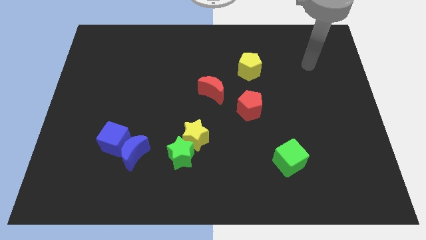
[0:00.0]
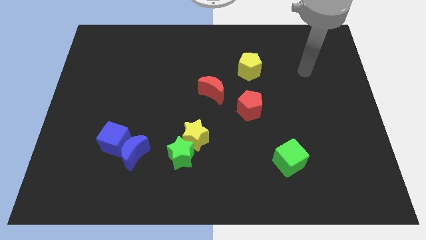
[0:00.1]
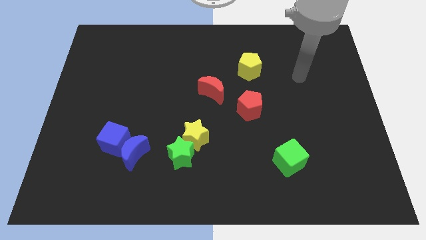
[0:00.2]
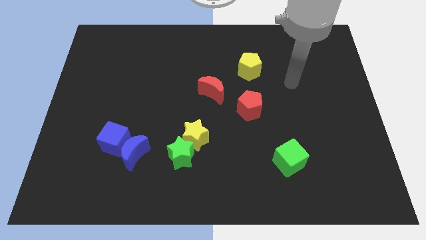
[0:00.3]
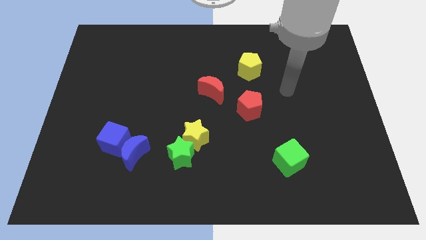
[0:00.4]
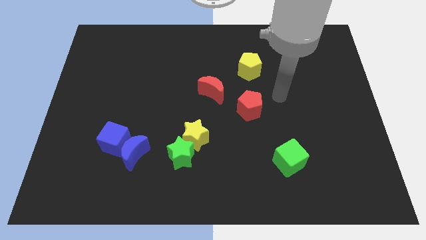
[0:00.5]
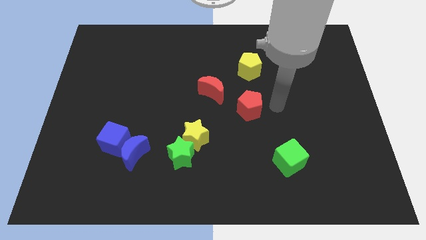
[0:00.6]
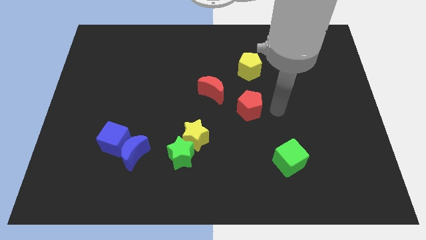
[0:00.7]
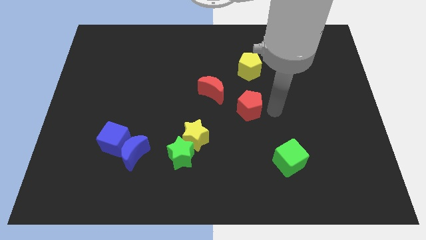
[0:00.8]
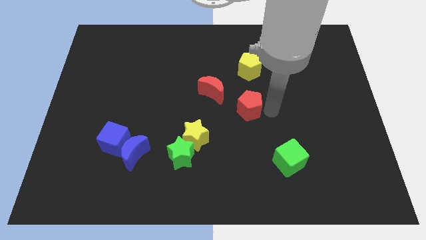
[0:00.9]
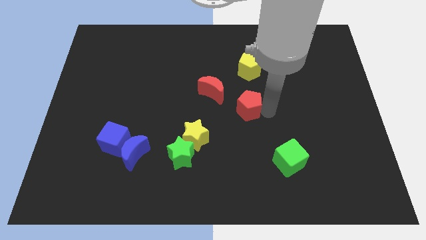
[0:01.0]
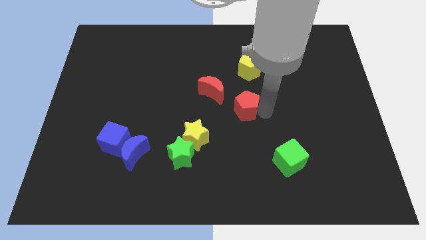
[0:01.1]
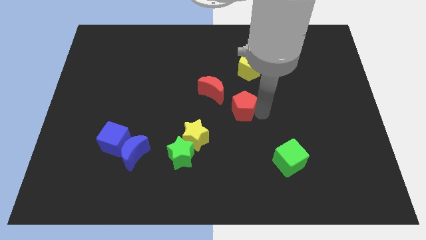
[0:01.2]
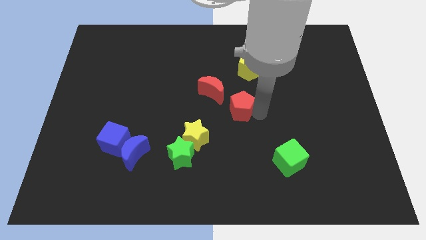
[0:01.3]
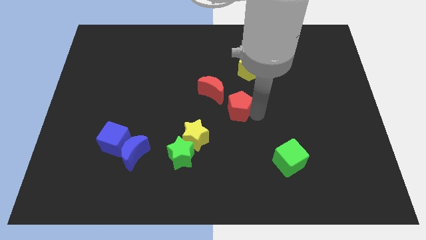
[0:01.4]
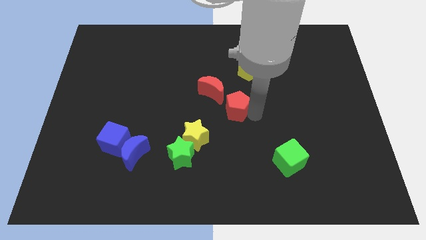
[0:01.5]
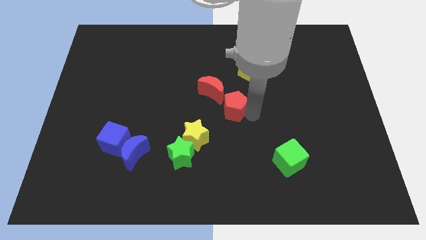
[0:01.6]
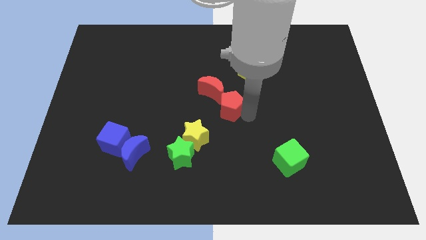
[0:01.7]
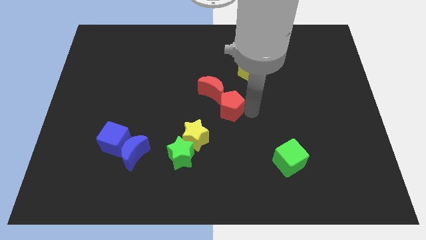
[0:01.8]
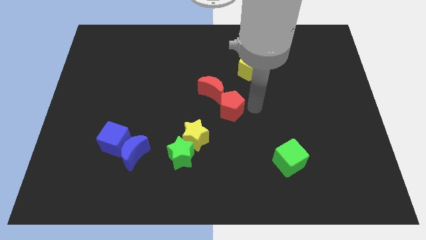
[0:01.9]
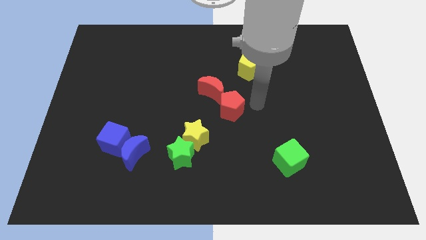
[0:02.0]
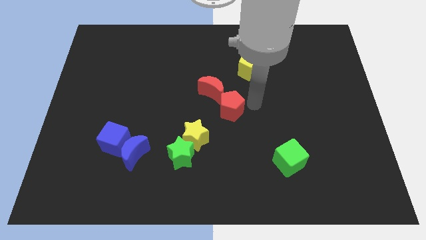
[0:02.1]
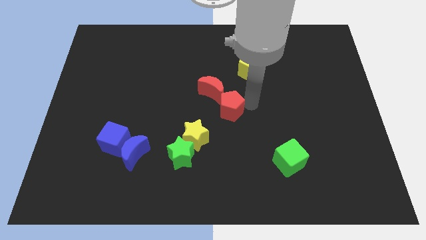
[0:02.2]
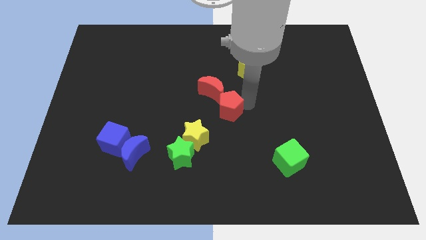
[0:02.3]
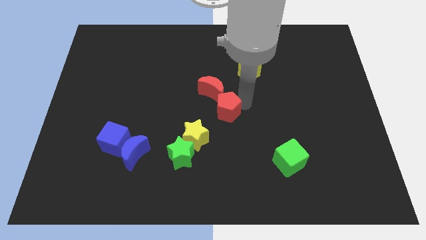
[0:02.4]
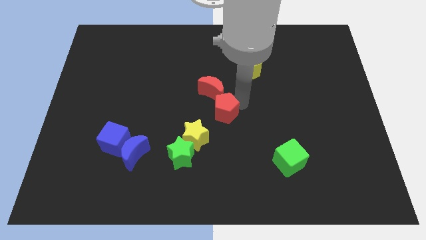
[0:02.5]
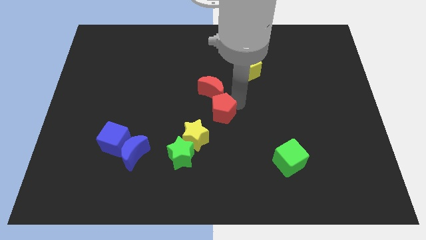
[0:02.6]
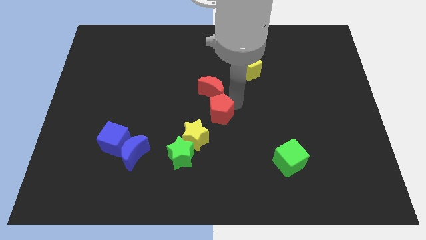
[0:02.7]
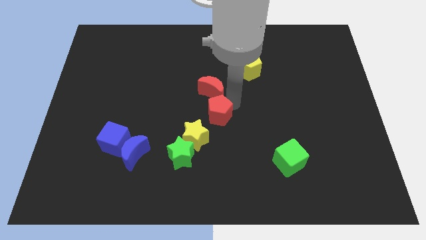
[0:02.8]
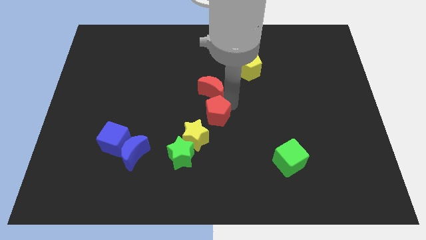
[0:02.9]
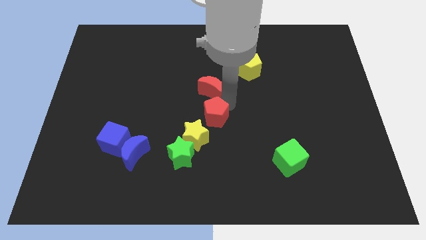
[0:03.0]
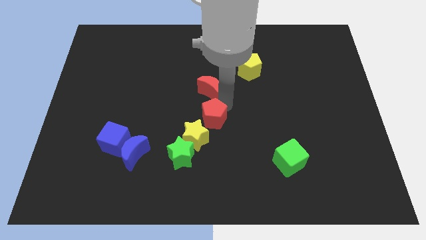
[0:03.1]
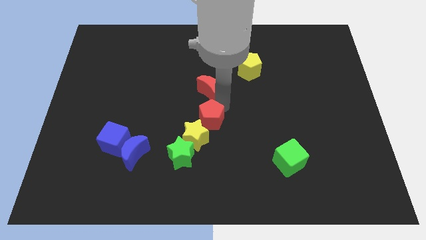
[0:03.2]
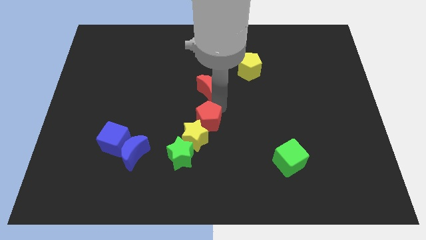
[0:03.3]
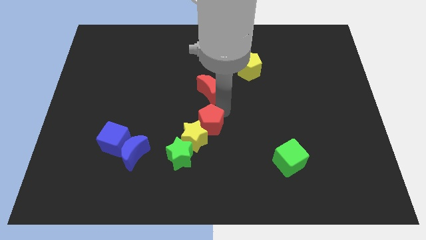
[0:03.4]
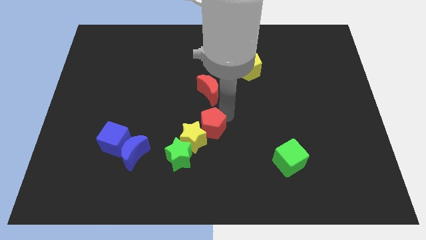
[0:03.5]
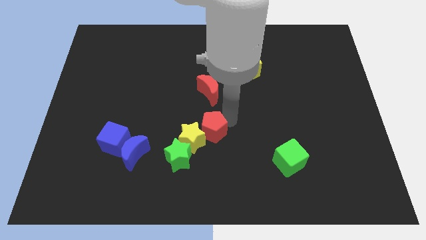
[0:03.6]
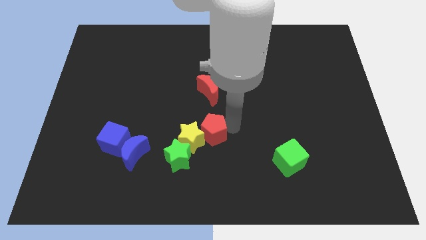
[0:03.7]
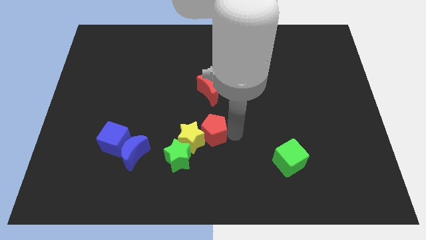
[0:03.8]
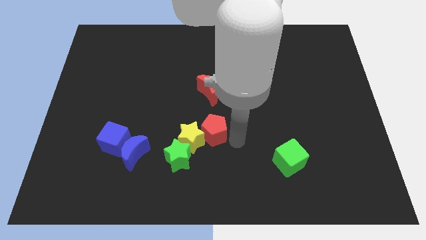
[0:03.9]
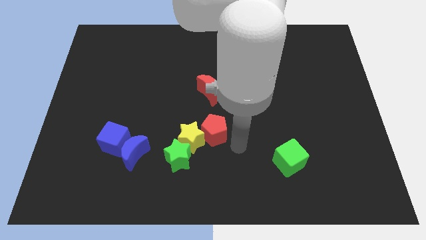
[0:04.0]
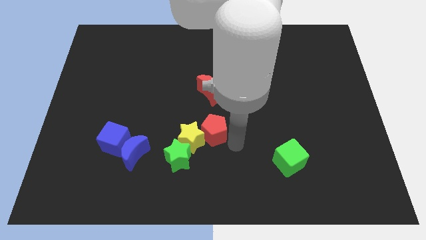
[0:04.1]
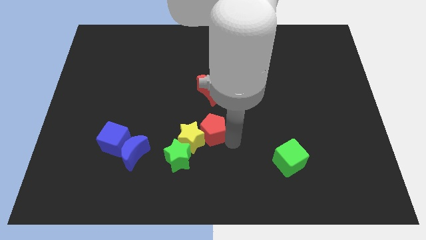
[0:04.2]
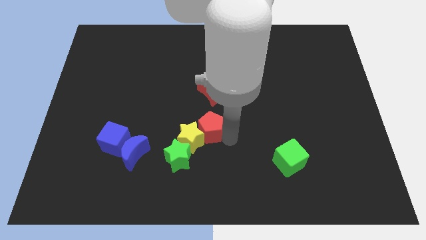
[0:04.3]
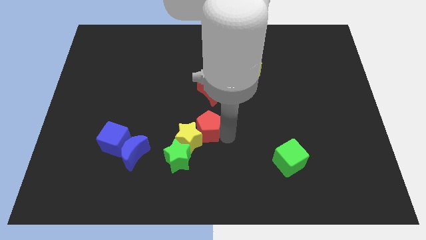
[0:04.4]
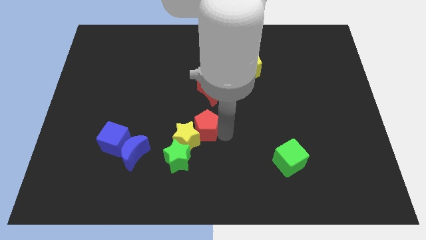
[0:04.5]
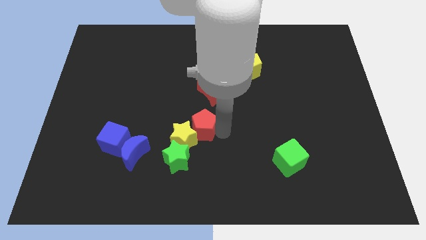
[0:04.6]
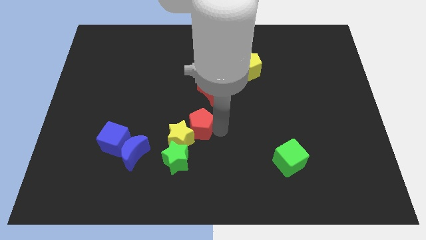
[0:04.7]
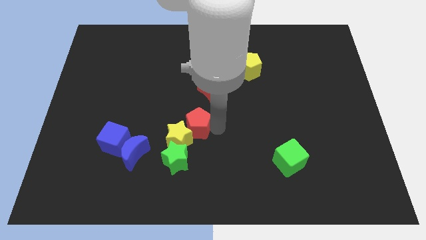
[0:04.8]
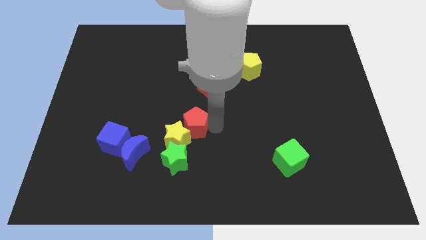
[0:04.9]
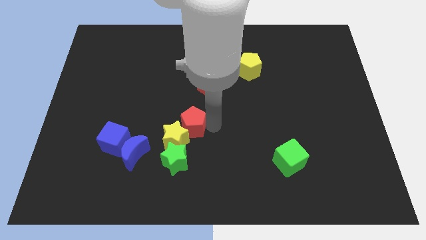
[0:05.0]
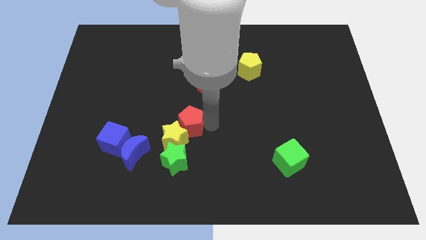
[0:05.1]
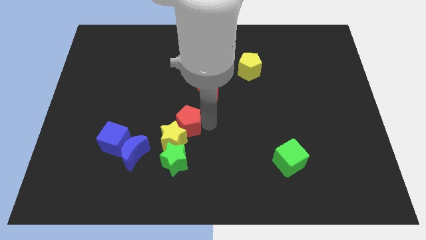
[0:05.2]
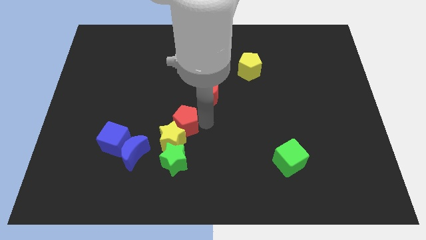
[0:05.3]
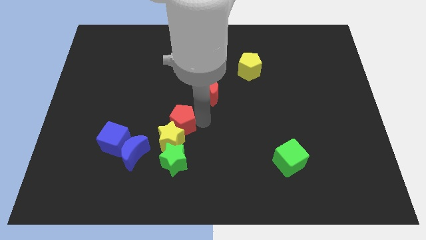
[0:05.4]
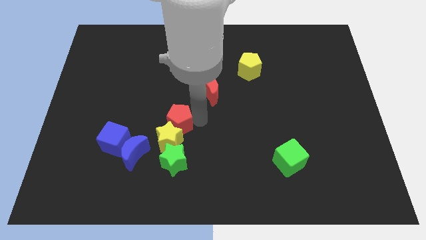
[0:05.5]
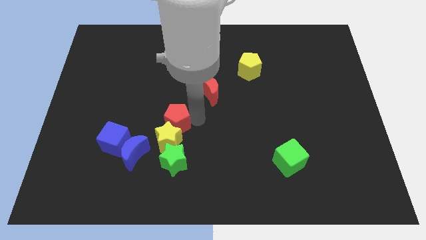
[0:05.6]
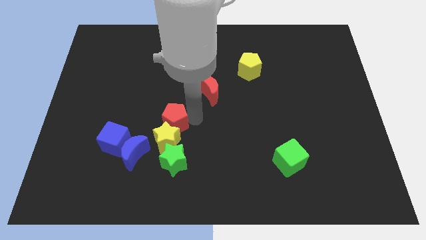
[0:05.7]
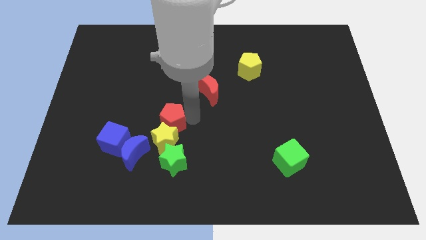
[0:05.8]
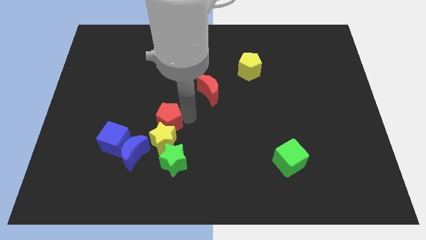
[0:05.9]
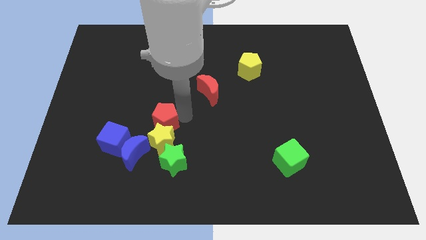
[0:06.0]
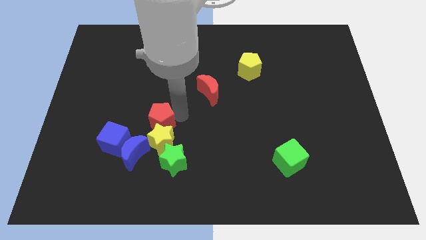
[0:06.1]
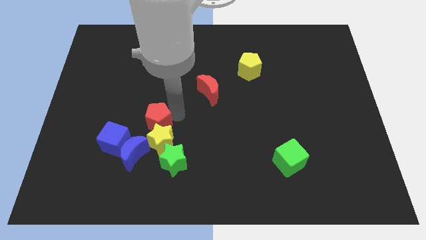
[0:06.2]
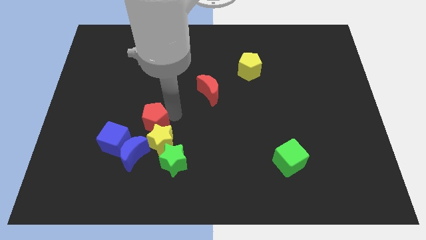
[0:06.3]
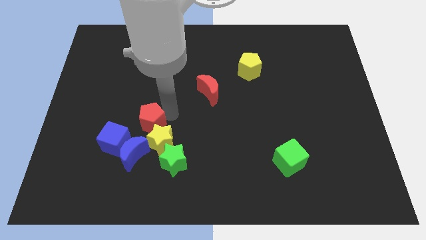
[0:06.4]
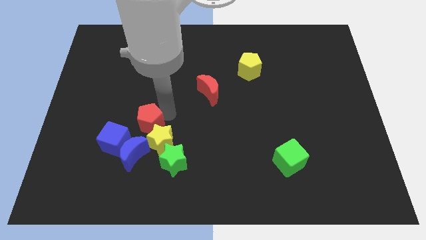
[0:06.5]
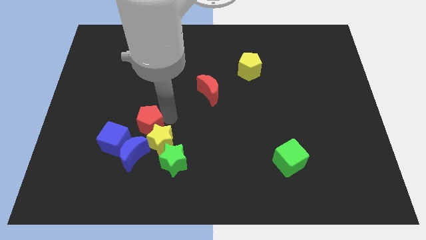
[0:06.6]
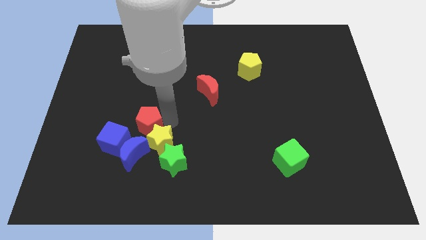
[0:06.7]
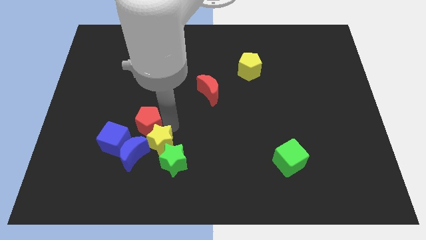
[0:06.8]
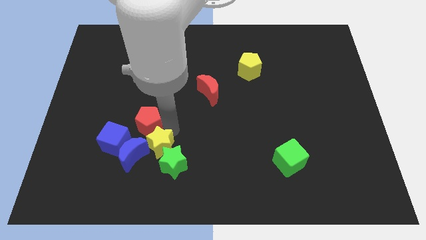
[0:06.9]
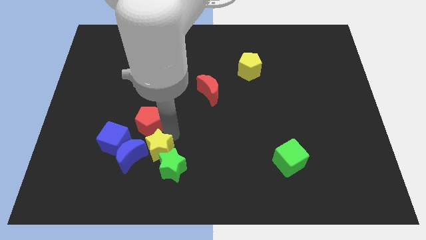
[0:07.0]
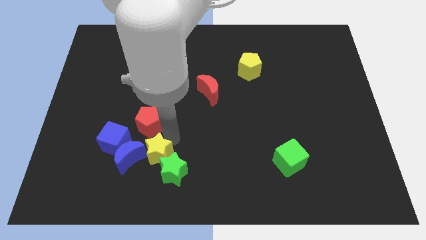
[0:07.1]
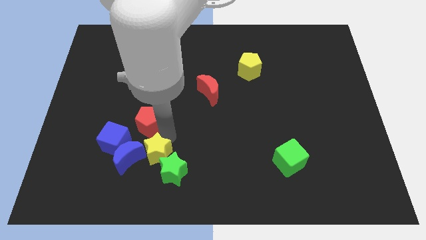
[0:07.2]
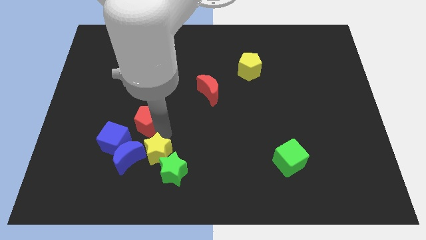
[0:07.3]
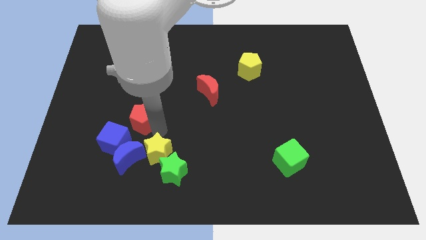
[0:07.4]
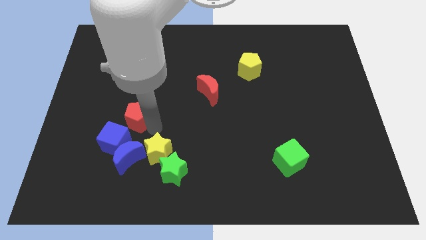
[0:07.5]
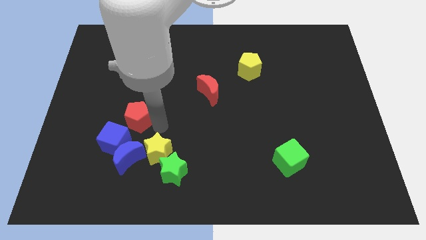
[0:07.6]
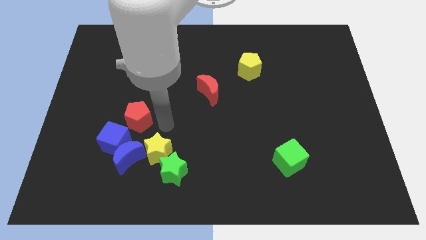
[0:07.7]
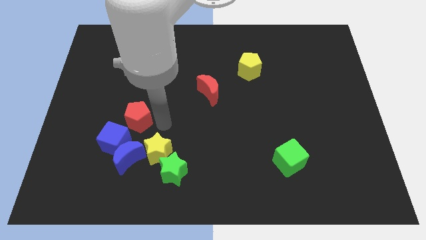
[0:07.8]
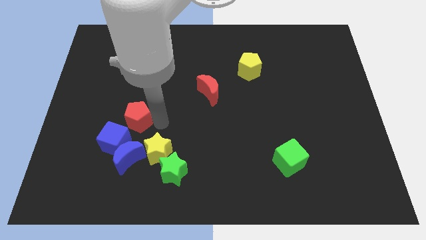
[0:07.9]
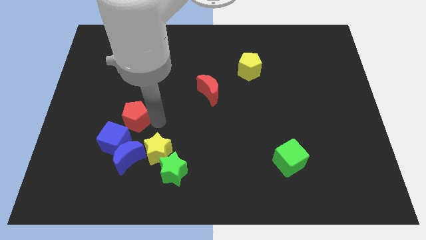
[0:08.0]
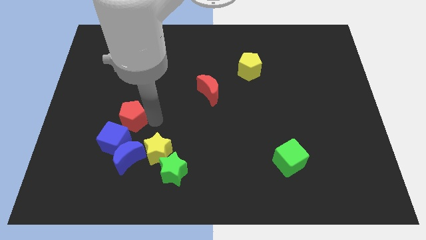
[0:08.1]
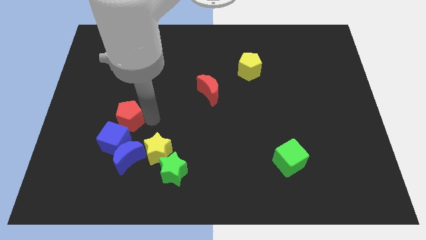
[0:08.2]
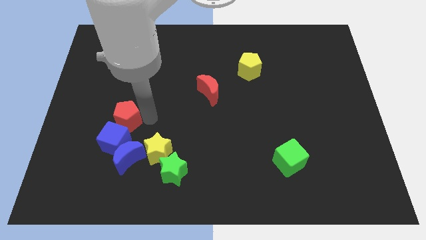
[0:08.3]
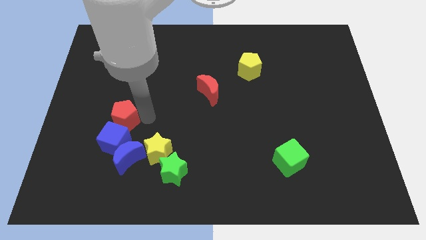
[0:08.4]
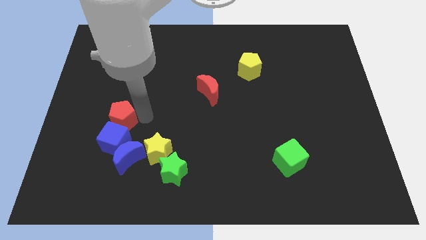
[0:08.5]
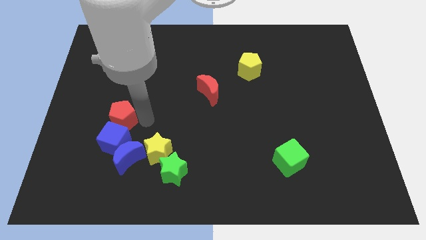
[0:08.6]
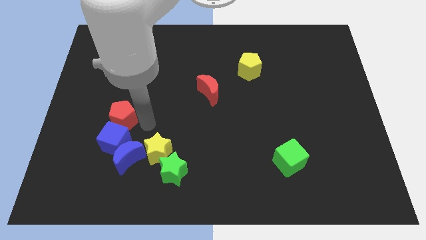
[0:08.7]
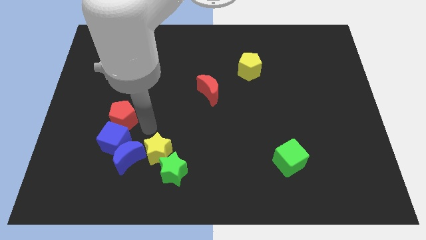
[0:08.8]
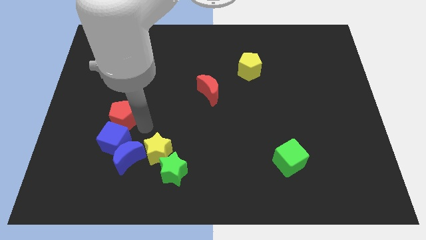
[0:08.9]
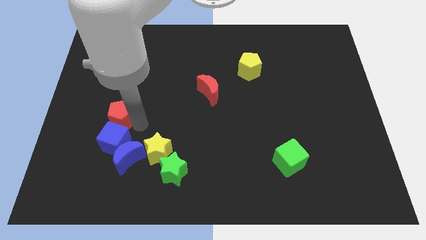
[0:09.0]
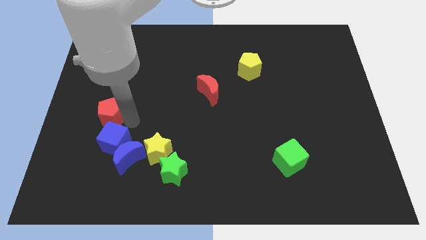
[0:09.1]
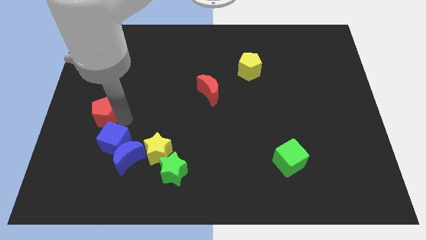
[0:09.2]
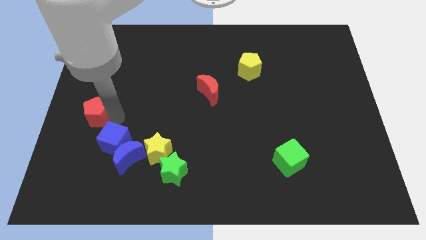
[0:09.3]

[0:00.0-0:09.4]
slide the red pentagon to the center left
